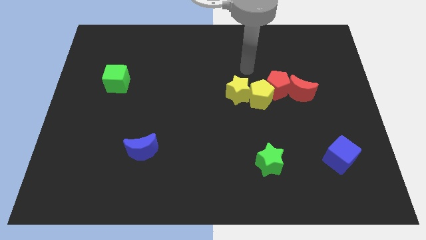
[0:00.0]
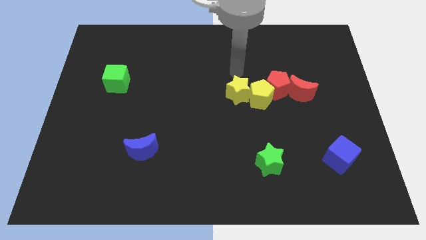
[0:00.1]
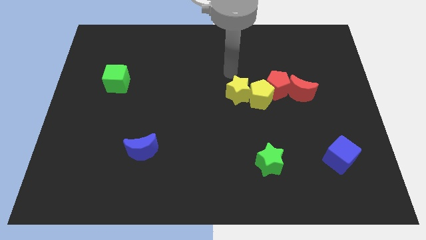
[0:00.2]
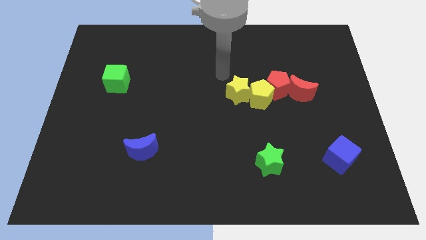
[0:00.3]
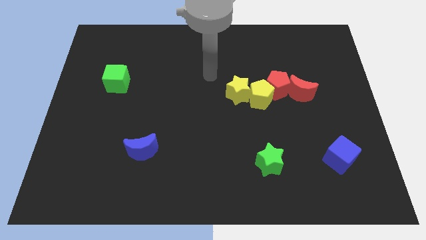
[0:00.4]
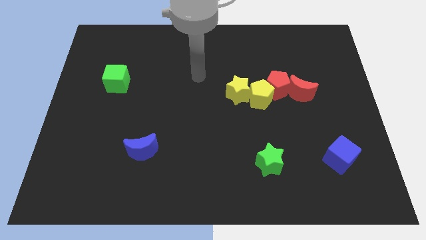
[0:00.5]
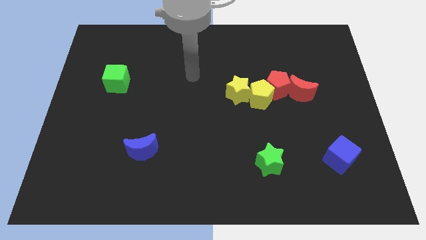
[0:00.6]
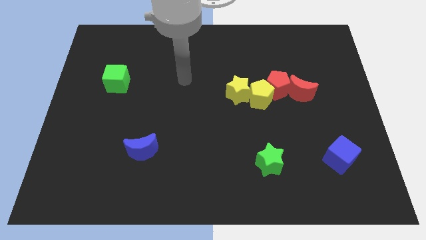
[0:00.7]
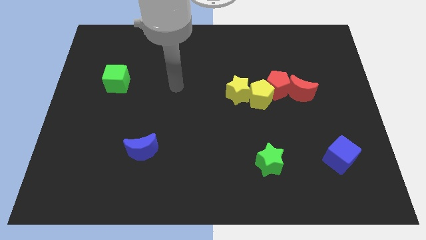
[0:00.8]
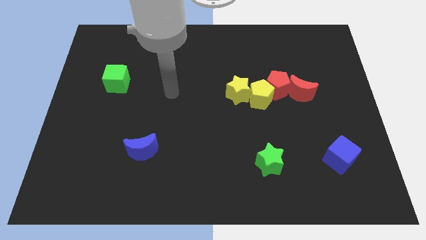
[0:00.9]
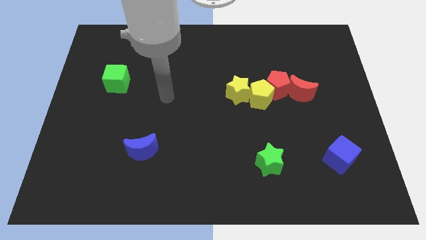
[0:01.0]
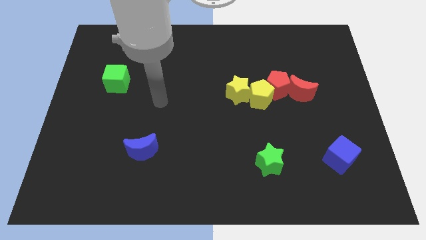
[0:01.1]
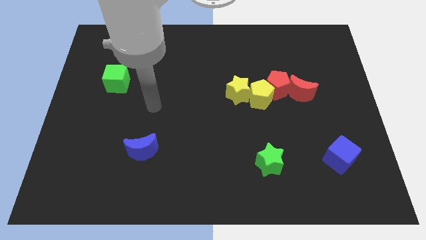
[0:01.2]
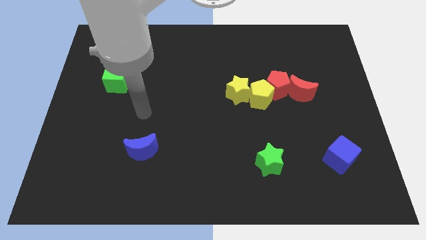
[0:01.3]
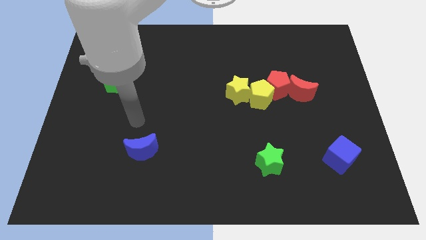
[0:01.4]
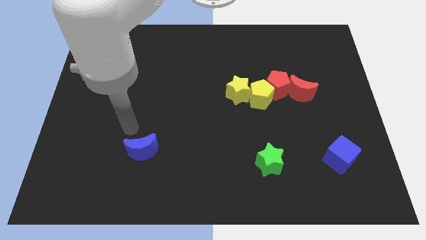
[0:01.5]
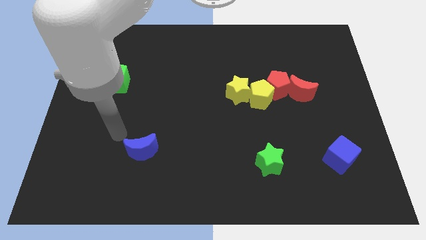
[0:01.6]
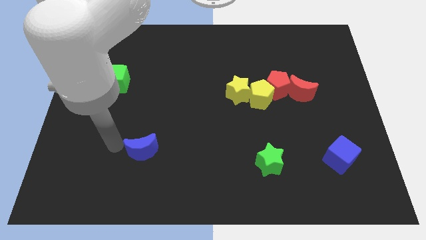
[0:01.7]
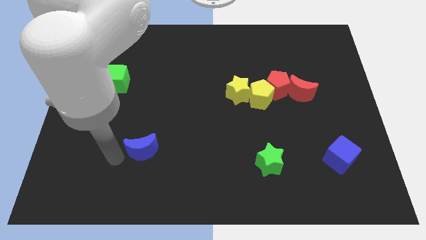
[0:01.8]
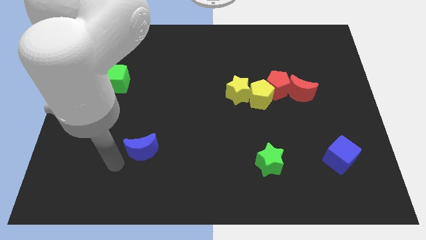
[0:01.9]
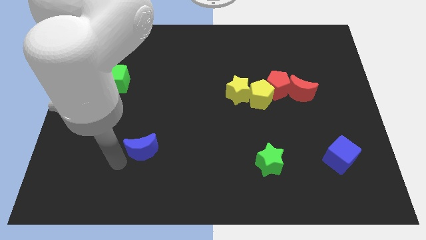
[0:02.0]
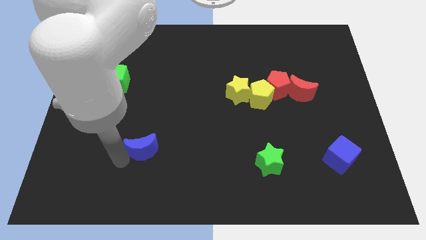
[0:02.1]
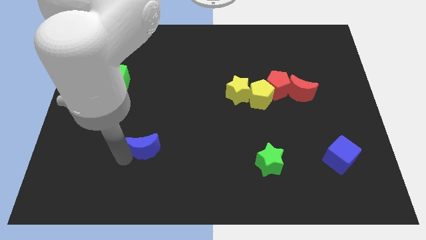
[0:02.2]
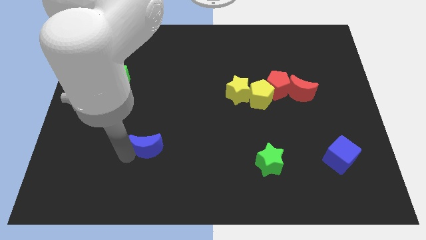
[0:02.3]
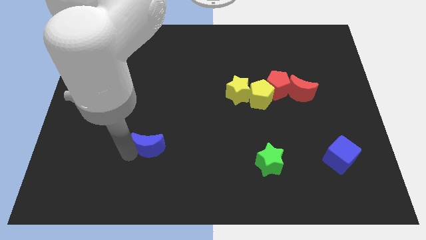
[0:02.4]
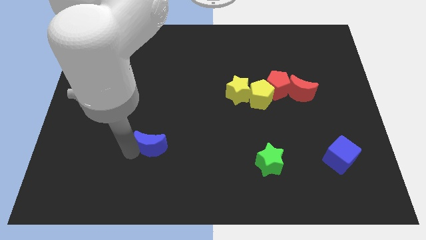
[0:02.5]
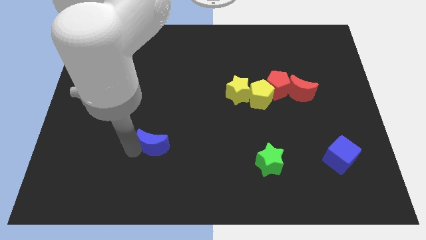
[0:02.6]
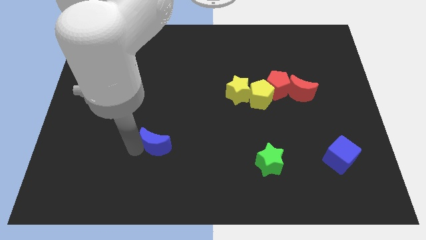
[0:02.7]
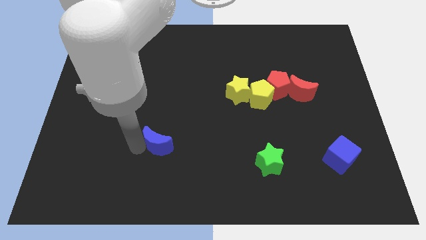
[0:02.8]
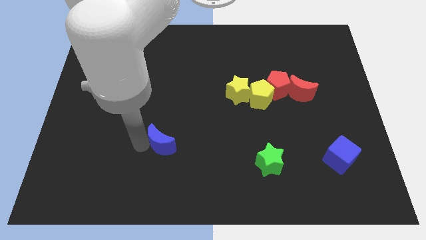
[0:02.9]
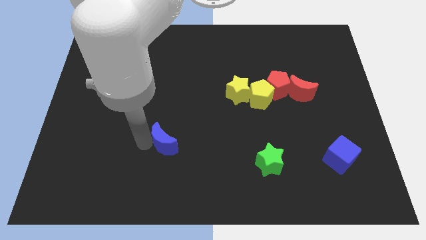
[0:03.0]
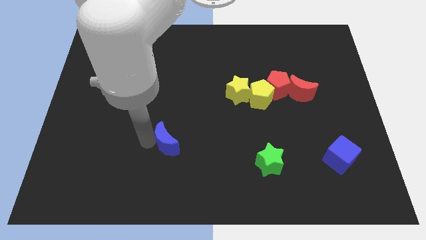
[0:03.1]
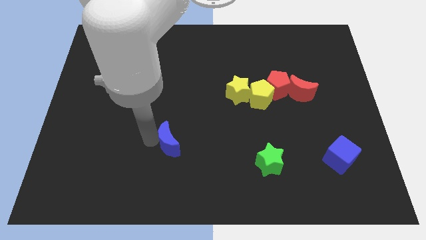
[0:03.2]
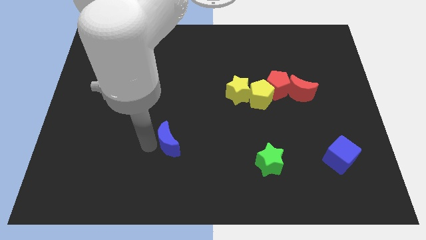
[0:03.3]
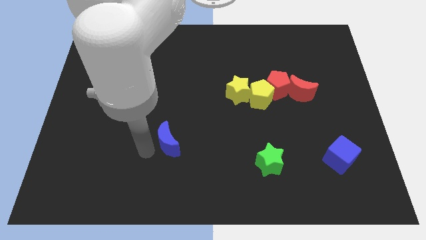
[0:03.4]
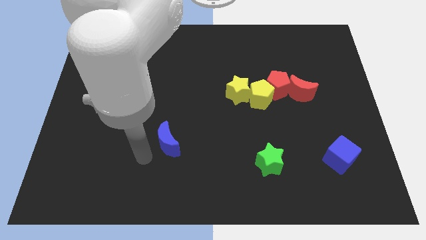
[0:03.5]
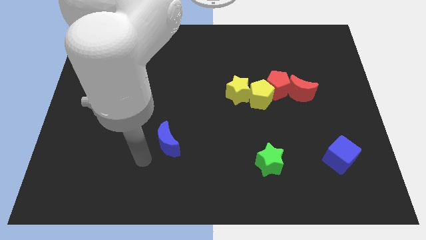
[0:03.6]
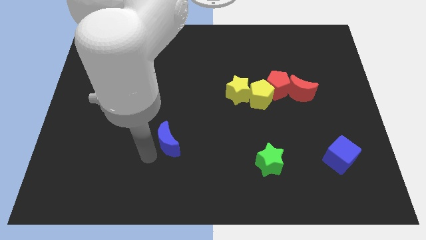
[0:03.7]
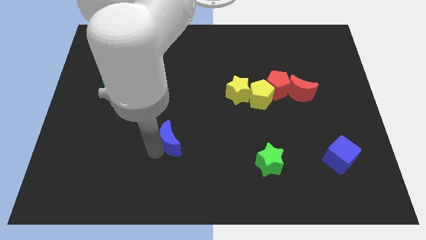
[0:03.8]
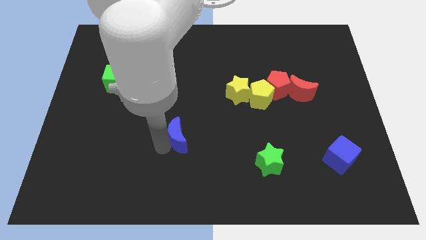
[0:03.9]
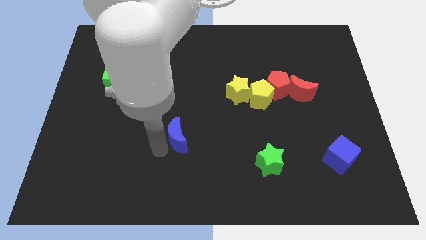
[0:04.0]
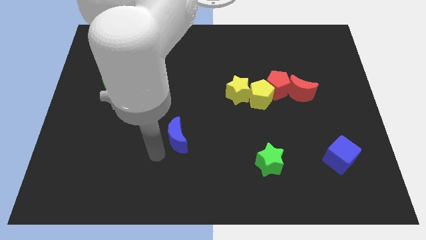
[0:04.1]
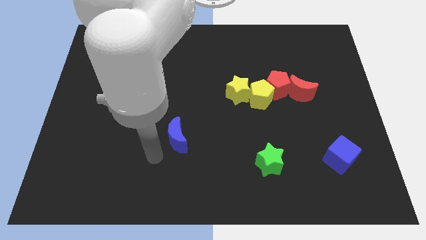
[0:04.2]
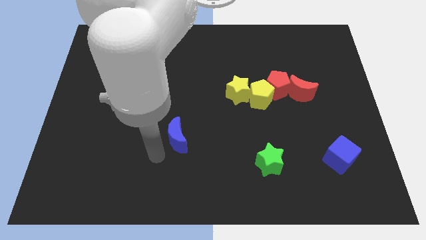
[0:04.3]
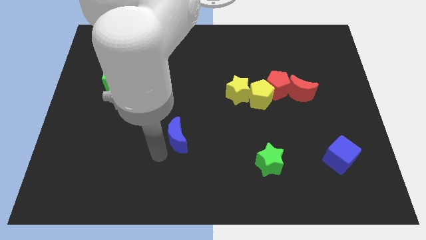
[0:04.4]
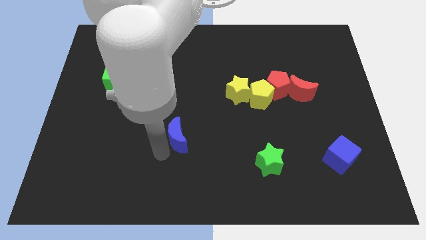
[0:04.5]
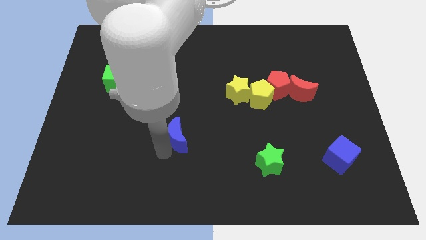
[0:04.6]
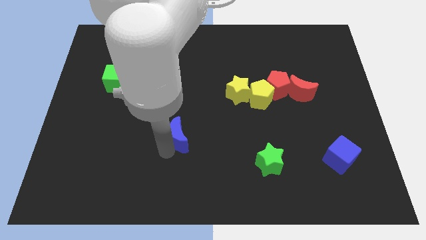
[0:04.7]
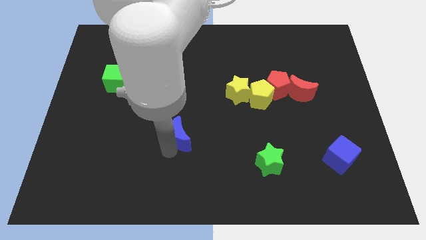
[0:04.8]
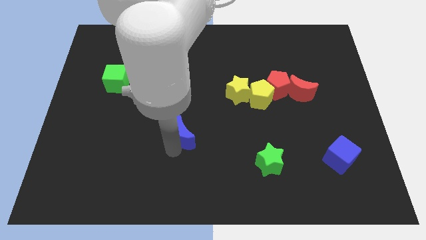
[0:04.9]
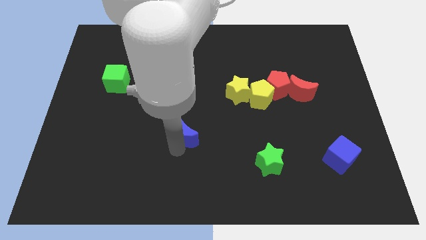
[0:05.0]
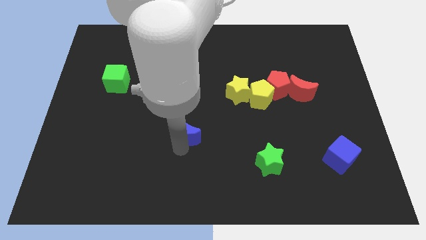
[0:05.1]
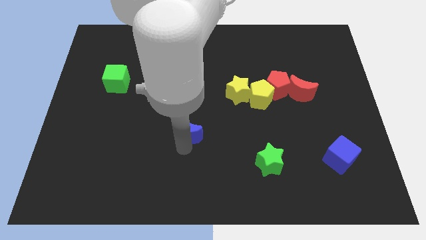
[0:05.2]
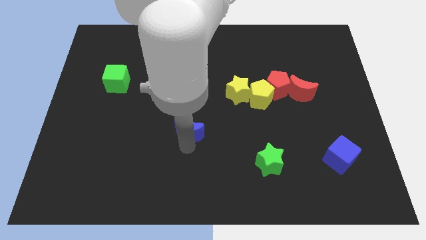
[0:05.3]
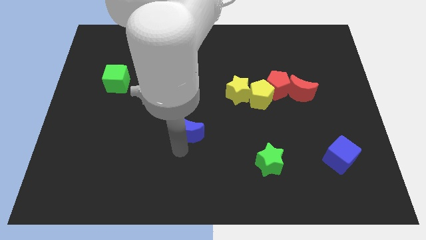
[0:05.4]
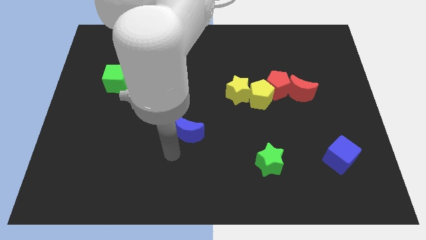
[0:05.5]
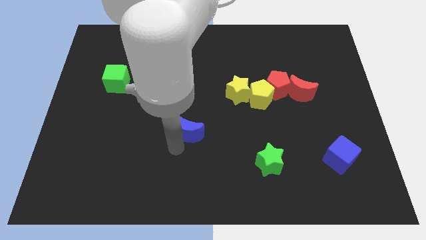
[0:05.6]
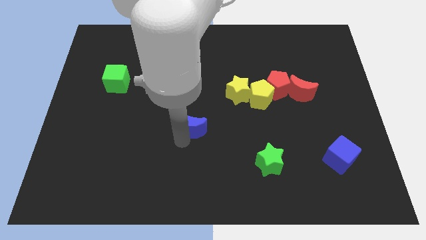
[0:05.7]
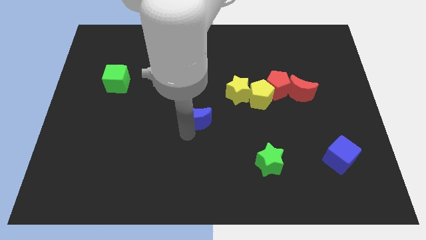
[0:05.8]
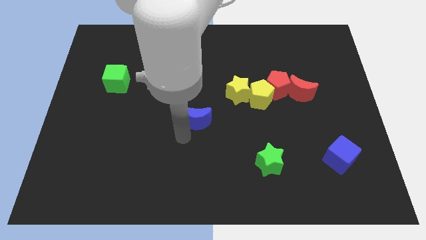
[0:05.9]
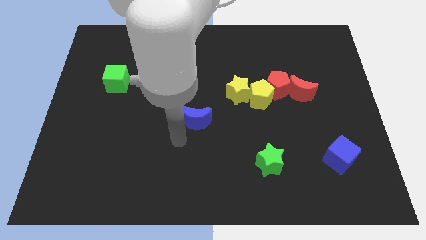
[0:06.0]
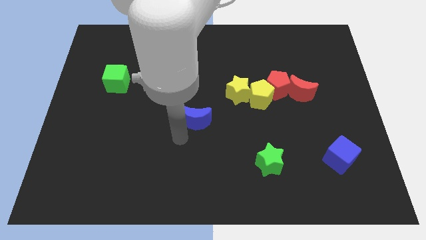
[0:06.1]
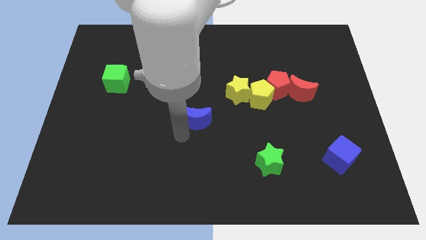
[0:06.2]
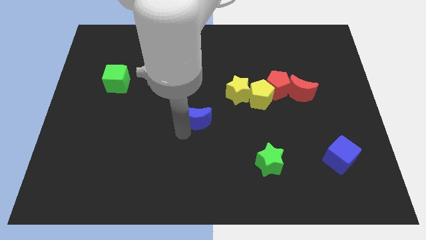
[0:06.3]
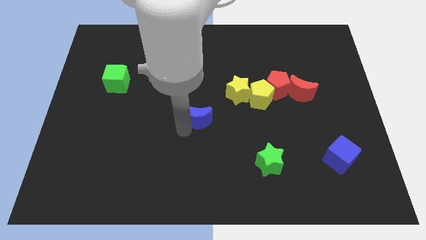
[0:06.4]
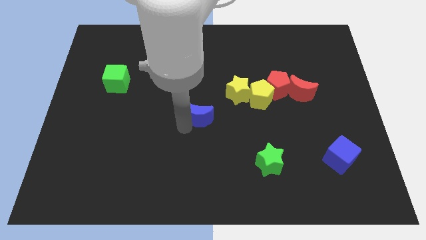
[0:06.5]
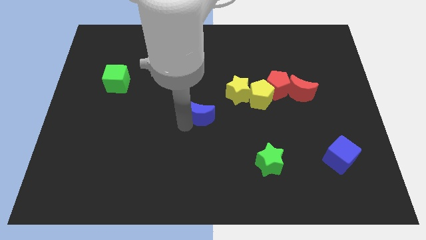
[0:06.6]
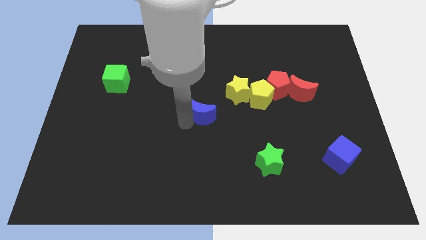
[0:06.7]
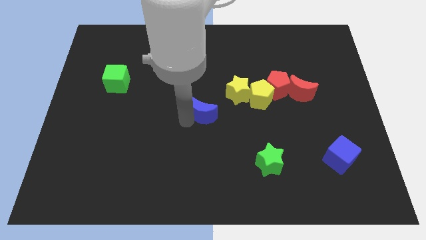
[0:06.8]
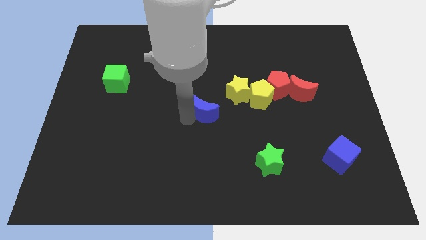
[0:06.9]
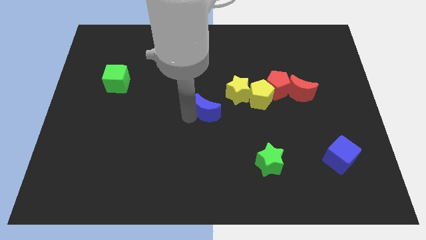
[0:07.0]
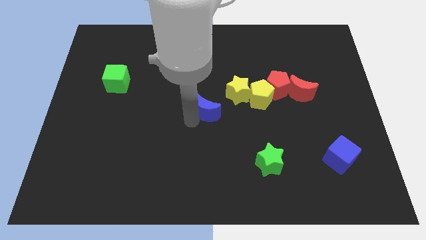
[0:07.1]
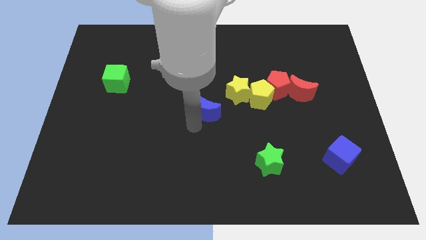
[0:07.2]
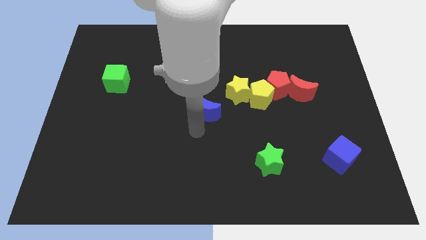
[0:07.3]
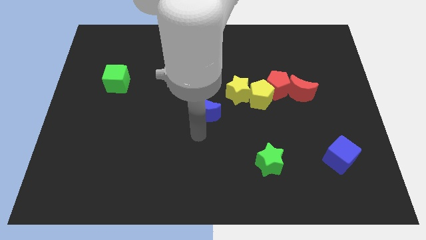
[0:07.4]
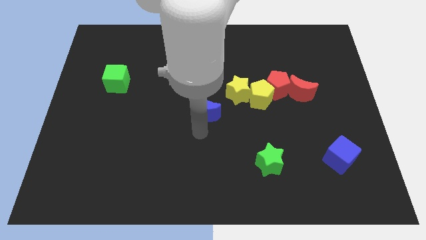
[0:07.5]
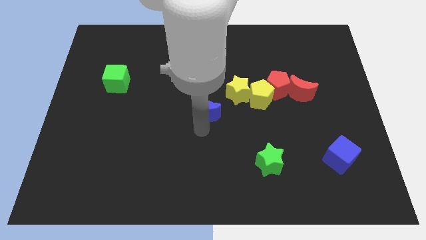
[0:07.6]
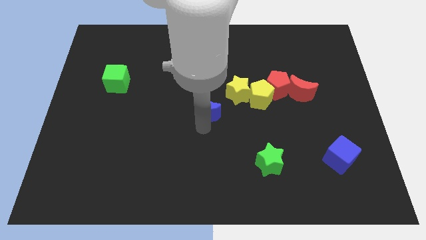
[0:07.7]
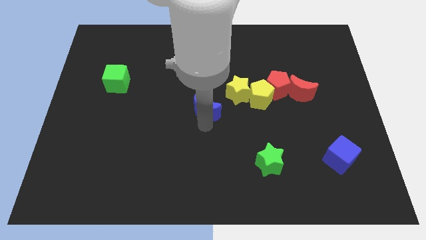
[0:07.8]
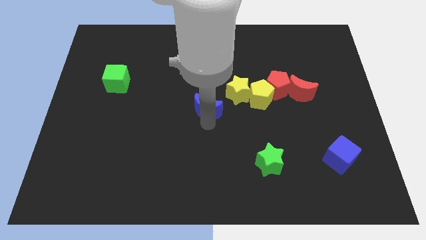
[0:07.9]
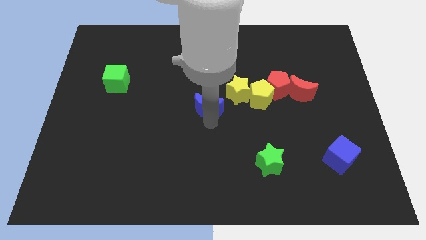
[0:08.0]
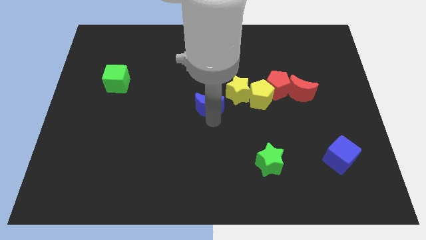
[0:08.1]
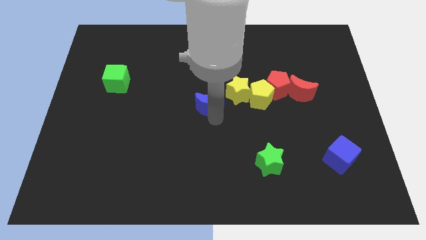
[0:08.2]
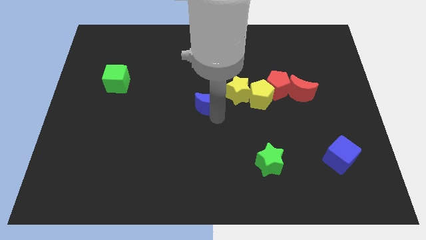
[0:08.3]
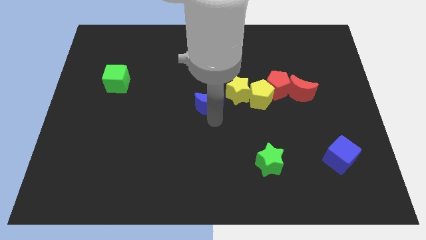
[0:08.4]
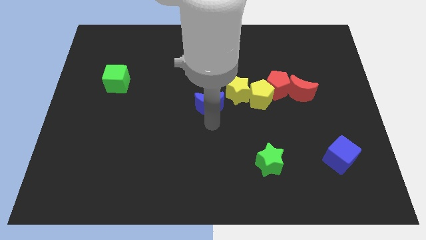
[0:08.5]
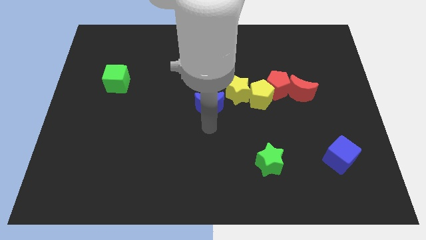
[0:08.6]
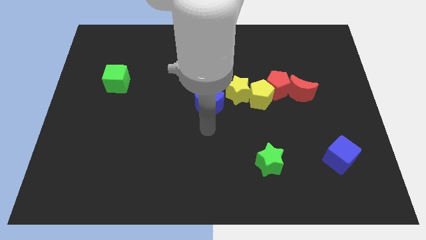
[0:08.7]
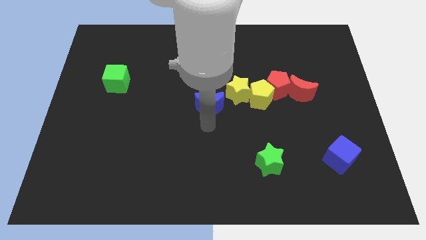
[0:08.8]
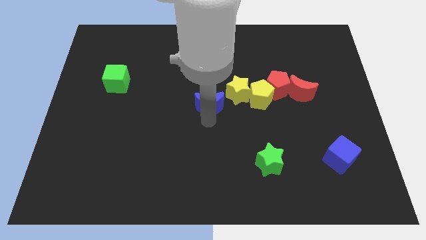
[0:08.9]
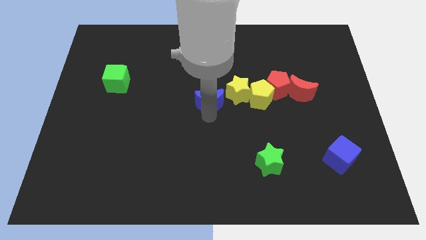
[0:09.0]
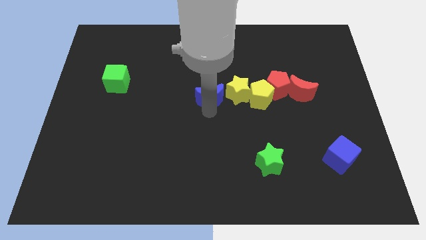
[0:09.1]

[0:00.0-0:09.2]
move the blue moon up and to the right
